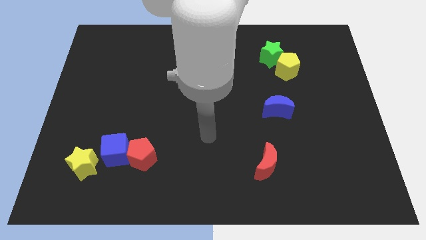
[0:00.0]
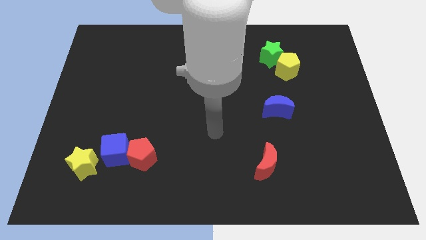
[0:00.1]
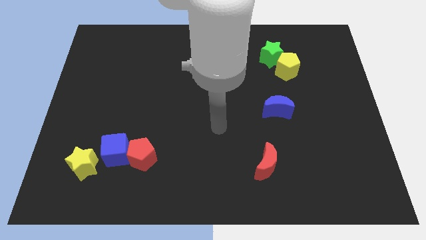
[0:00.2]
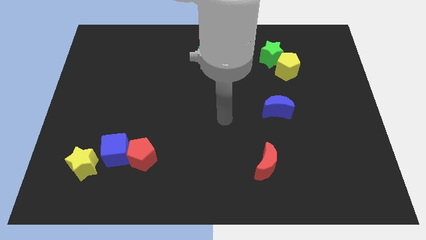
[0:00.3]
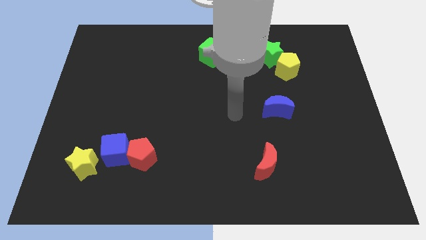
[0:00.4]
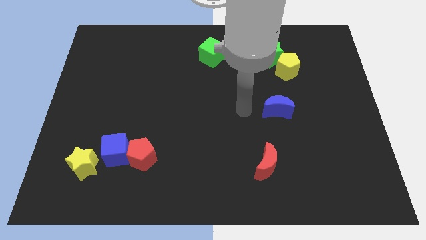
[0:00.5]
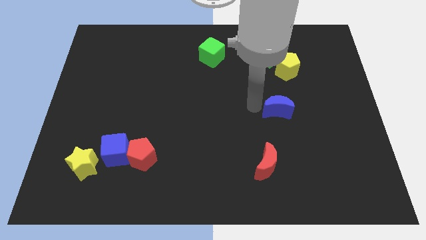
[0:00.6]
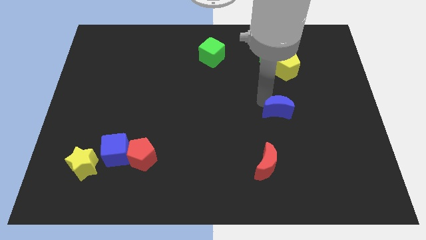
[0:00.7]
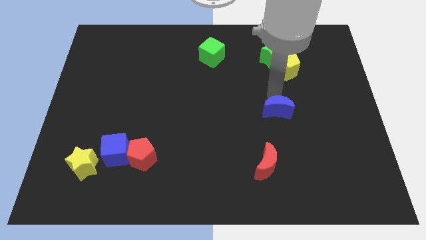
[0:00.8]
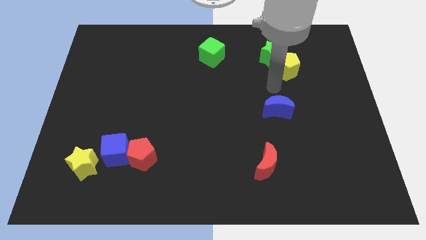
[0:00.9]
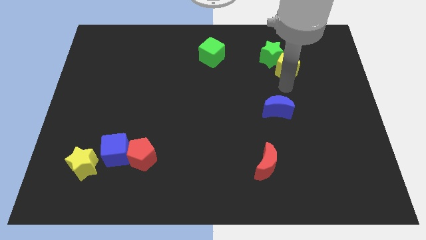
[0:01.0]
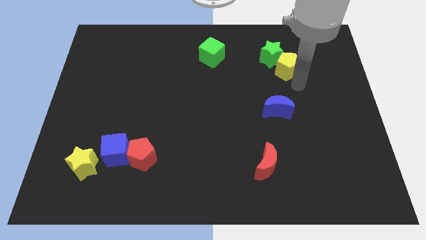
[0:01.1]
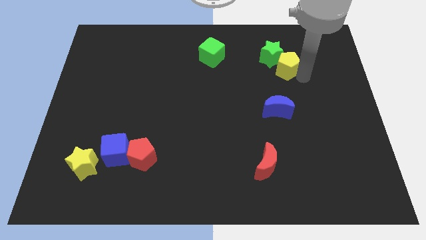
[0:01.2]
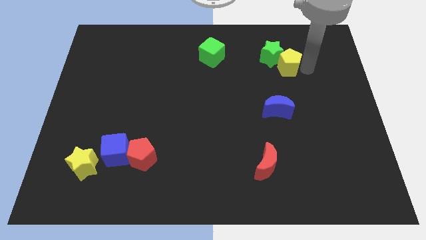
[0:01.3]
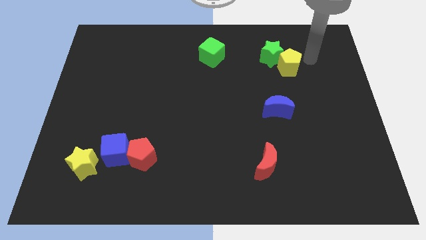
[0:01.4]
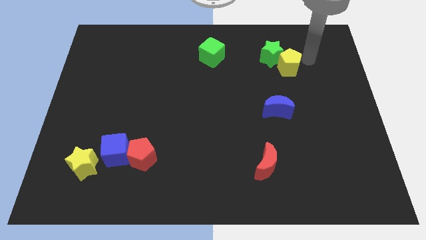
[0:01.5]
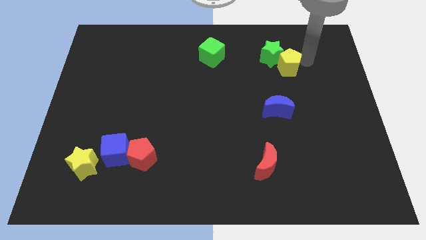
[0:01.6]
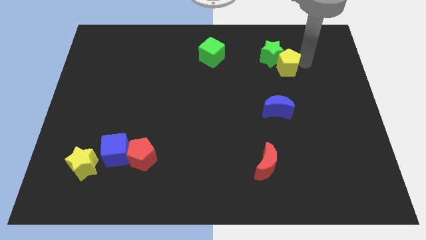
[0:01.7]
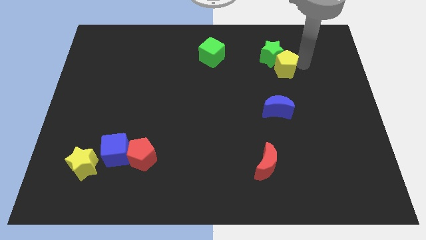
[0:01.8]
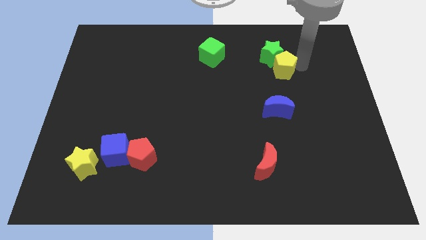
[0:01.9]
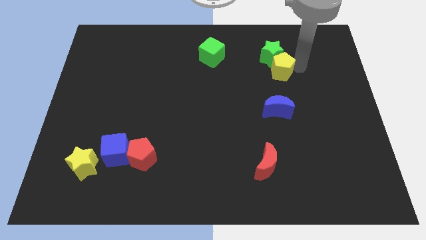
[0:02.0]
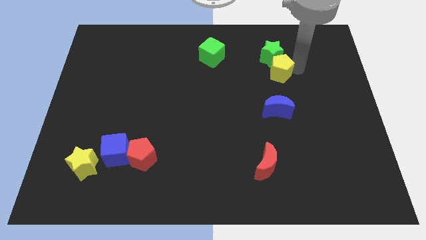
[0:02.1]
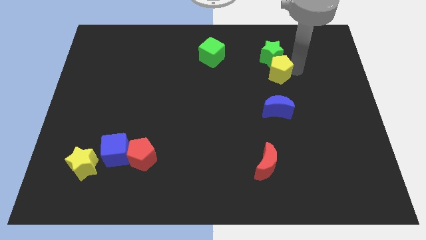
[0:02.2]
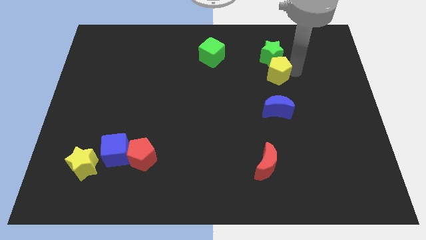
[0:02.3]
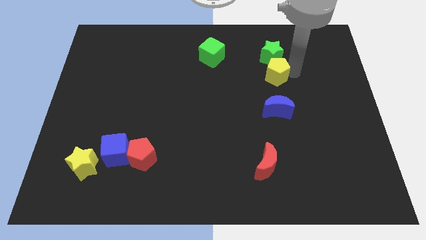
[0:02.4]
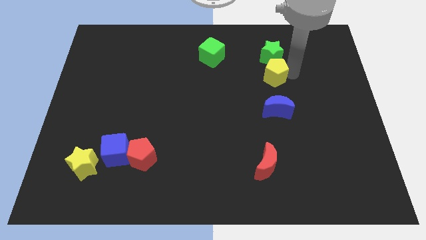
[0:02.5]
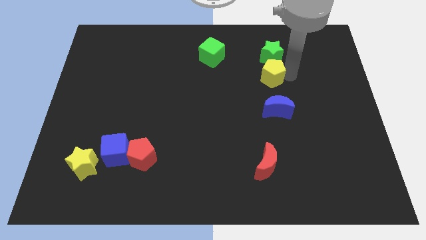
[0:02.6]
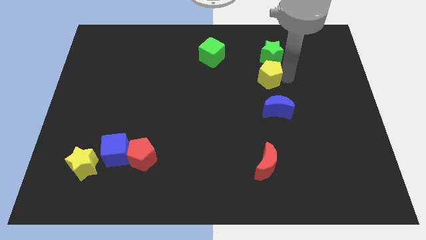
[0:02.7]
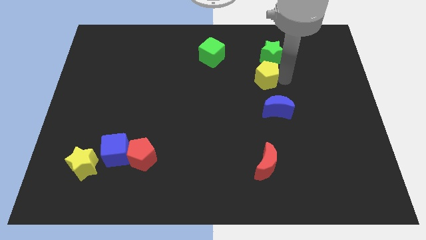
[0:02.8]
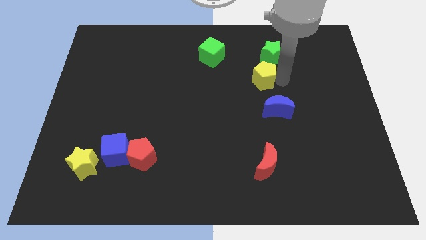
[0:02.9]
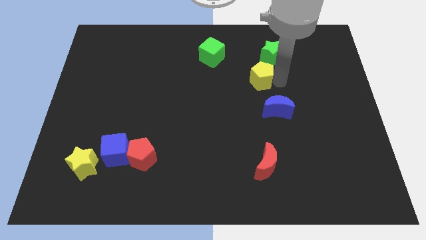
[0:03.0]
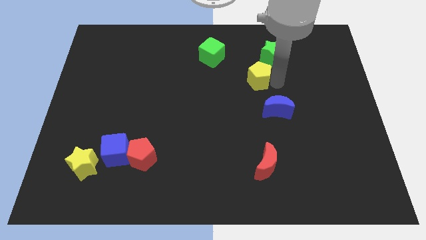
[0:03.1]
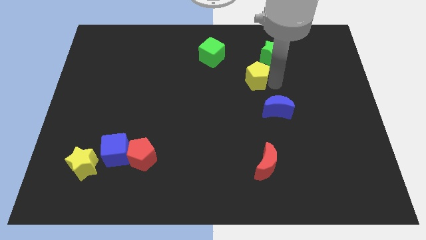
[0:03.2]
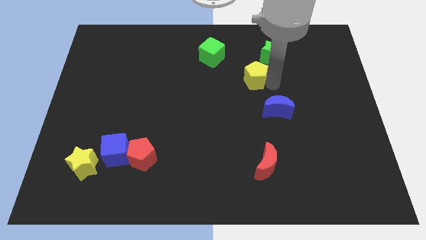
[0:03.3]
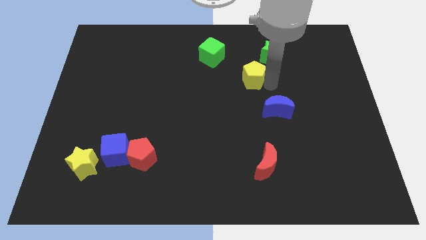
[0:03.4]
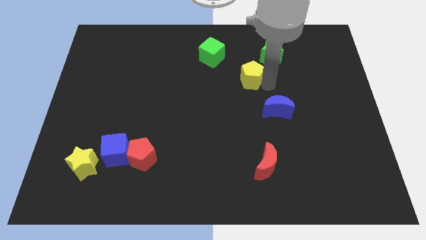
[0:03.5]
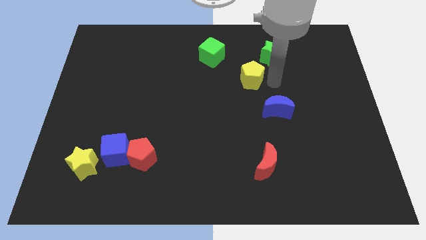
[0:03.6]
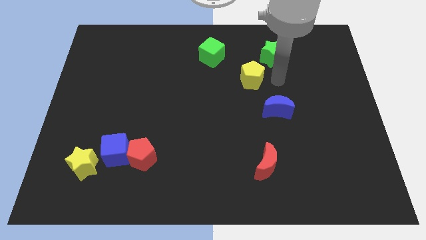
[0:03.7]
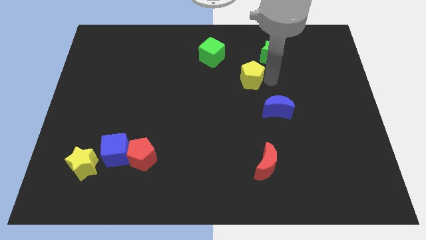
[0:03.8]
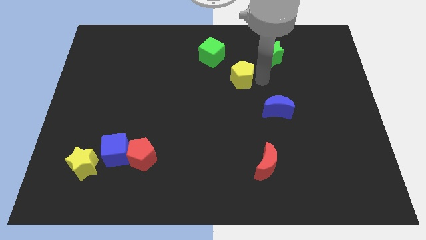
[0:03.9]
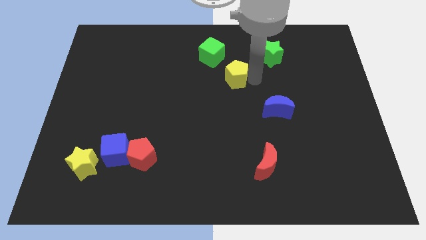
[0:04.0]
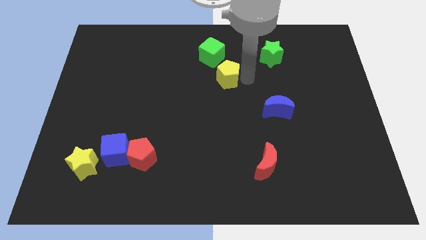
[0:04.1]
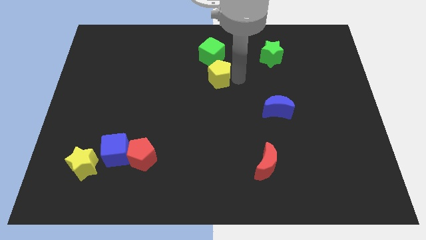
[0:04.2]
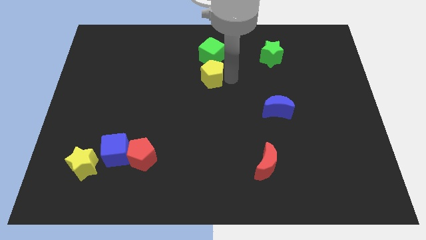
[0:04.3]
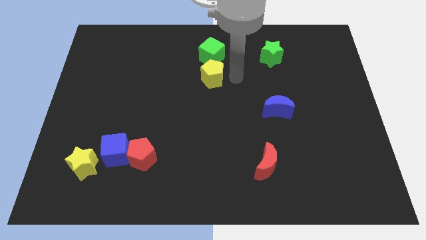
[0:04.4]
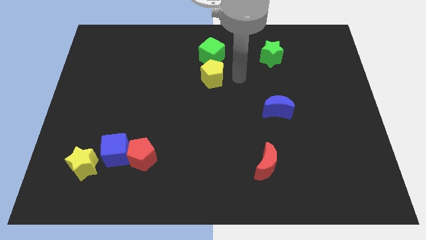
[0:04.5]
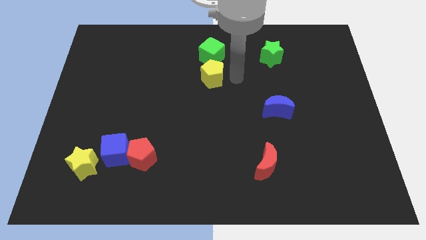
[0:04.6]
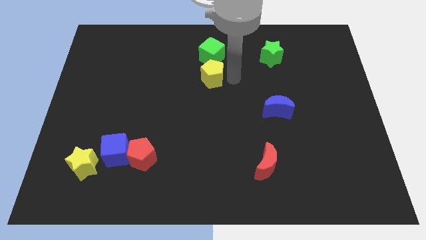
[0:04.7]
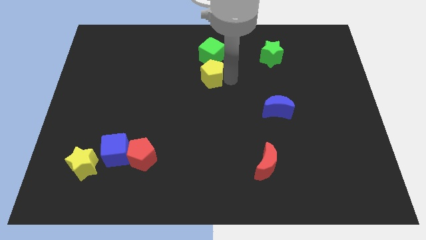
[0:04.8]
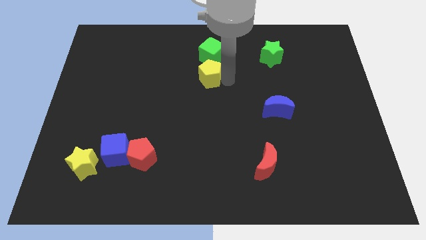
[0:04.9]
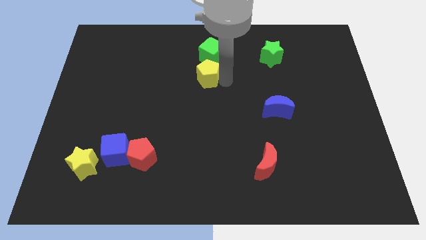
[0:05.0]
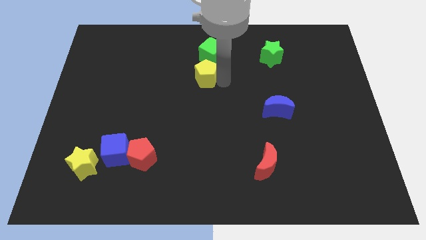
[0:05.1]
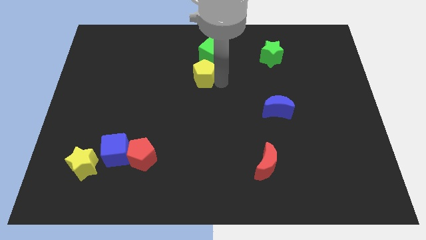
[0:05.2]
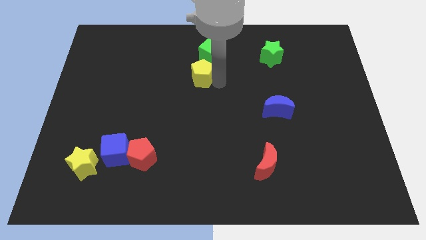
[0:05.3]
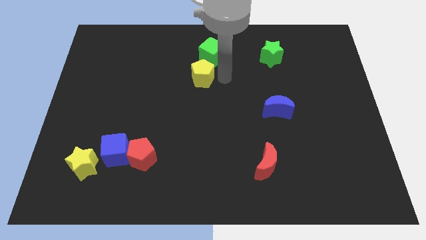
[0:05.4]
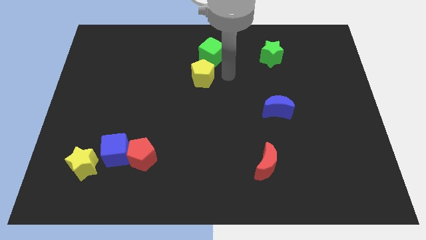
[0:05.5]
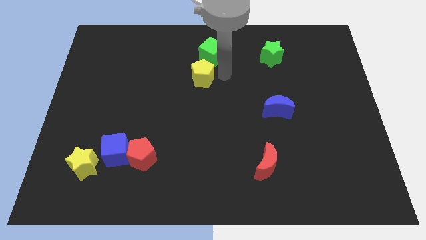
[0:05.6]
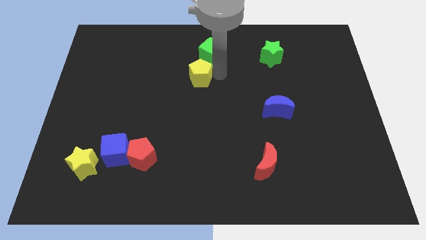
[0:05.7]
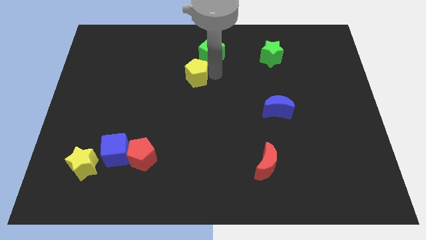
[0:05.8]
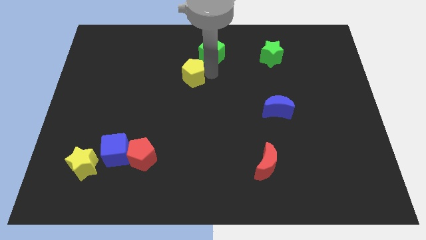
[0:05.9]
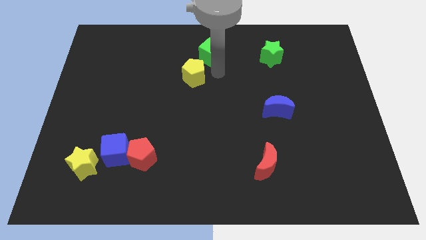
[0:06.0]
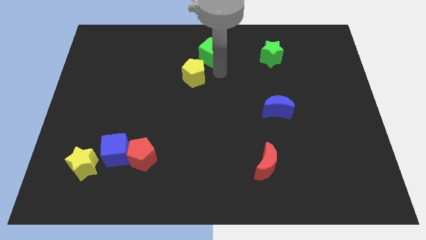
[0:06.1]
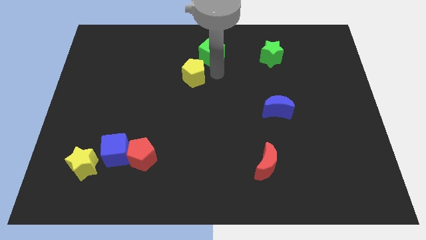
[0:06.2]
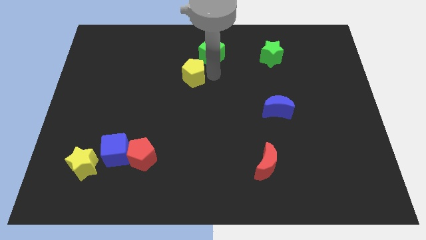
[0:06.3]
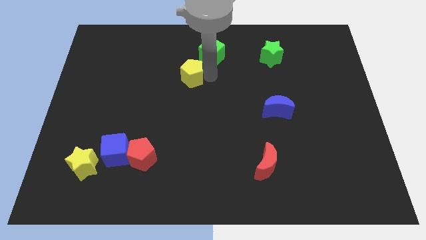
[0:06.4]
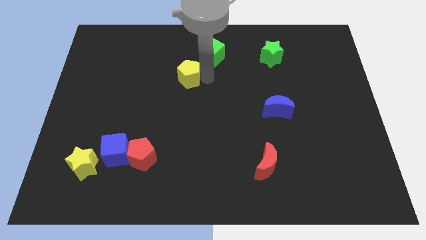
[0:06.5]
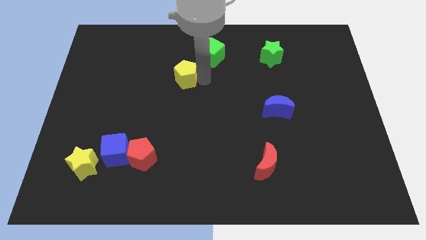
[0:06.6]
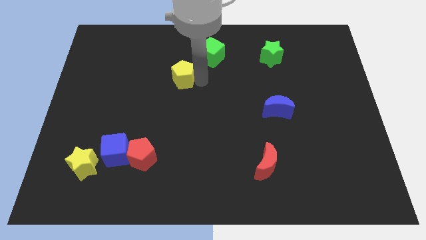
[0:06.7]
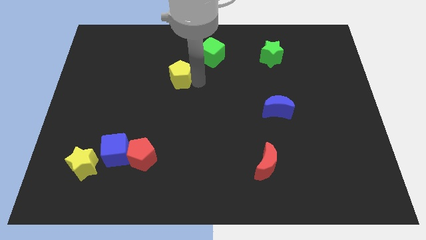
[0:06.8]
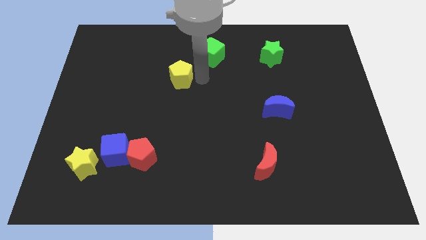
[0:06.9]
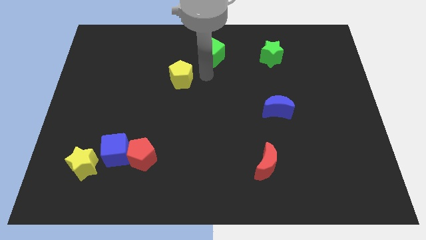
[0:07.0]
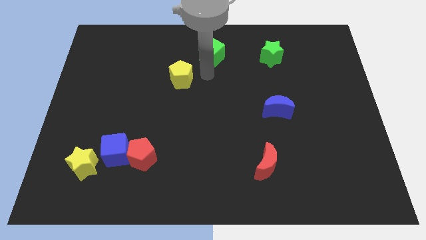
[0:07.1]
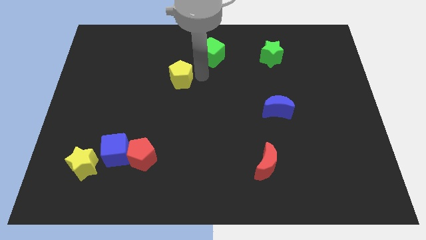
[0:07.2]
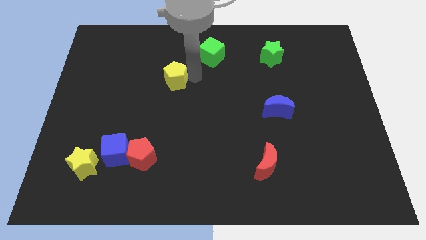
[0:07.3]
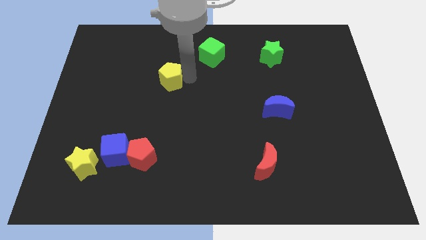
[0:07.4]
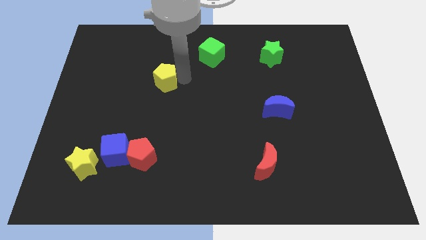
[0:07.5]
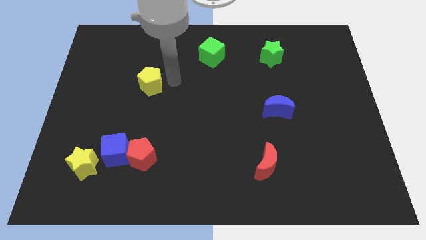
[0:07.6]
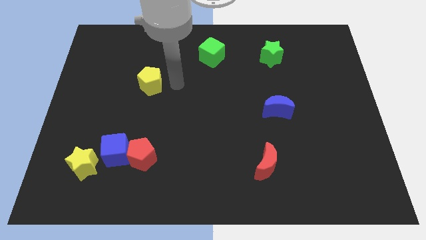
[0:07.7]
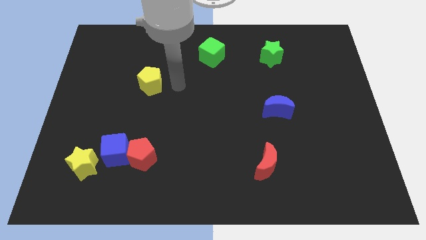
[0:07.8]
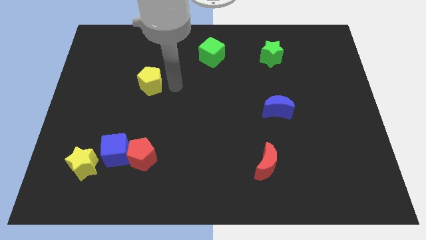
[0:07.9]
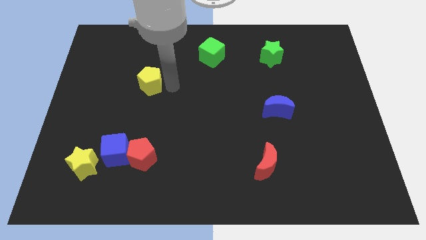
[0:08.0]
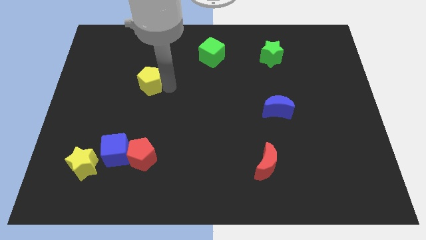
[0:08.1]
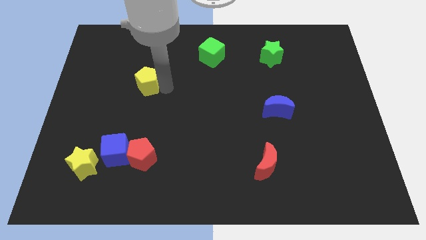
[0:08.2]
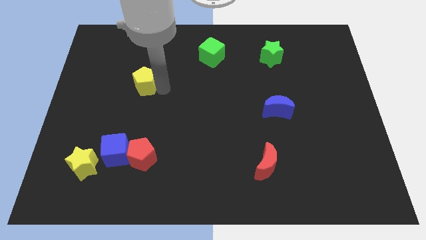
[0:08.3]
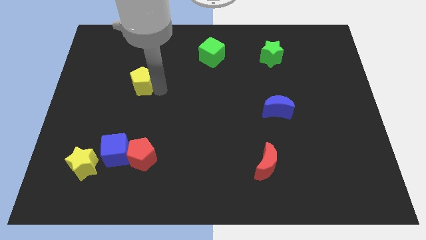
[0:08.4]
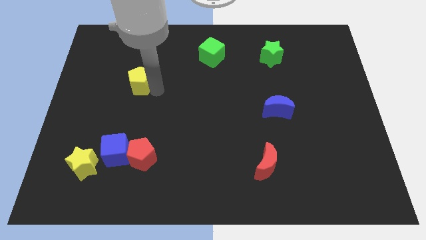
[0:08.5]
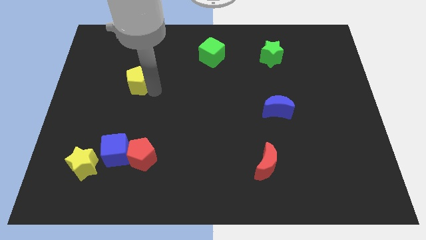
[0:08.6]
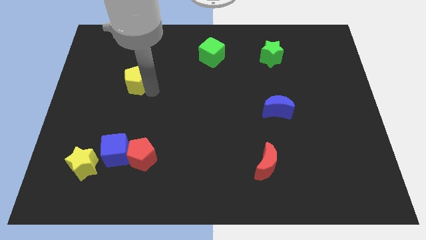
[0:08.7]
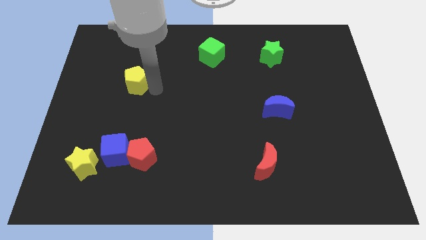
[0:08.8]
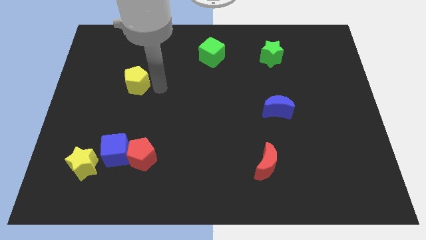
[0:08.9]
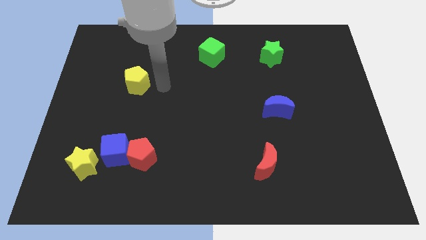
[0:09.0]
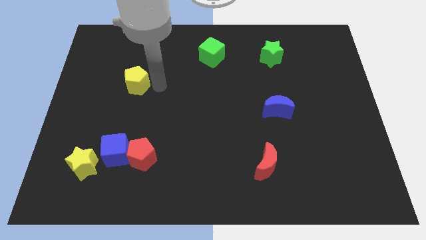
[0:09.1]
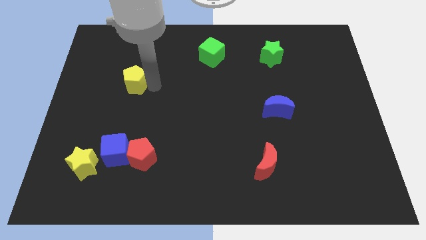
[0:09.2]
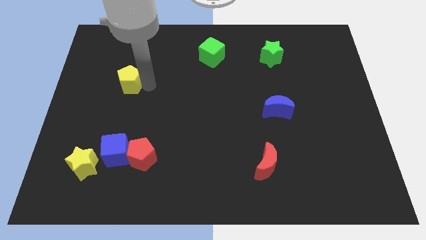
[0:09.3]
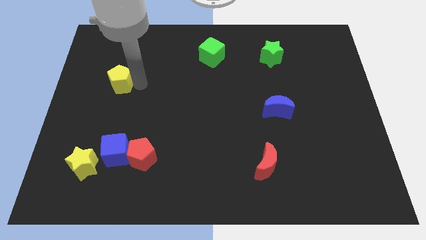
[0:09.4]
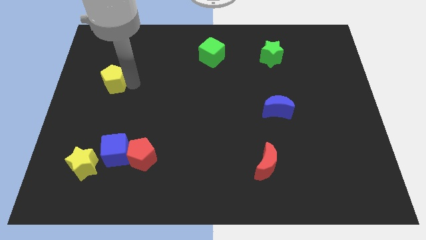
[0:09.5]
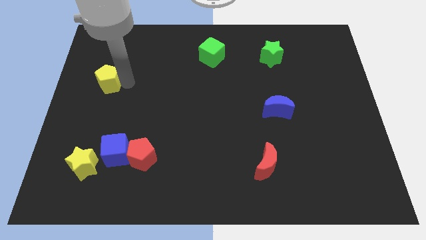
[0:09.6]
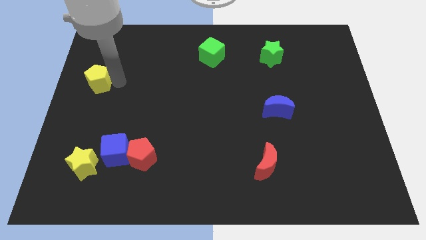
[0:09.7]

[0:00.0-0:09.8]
put the yellow pentagon to the left side of the board
